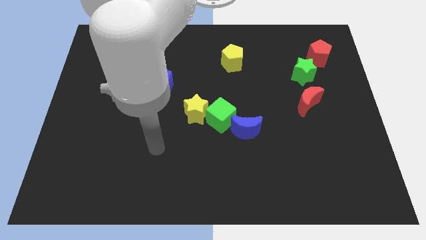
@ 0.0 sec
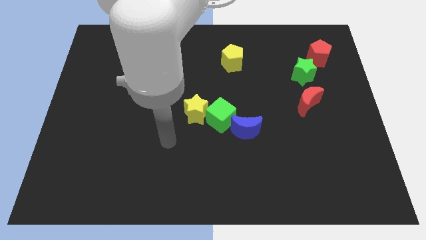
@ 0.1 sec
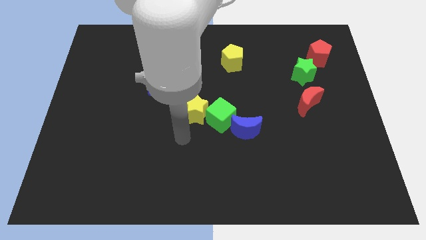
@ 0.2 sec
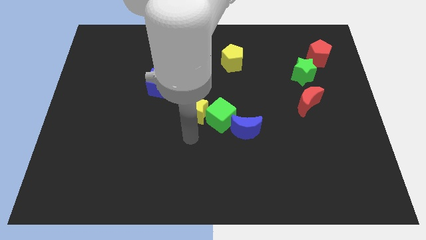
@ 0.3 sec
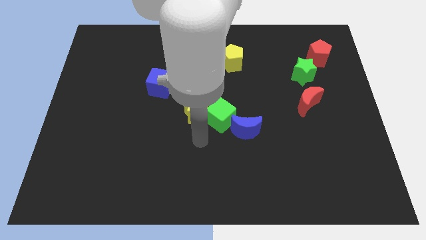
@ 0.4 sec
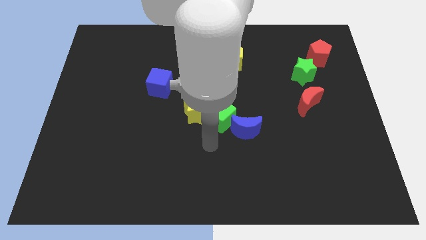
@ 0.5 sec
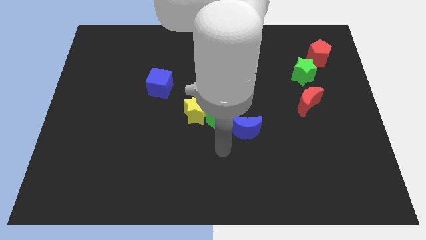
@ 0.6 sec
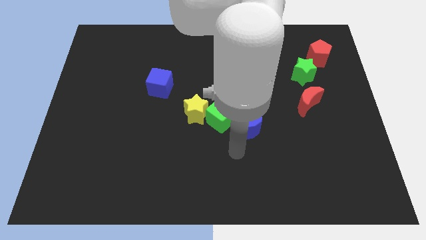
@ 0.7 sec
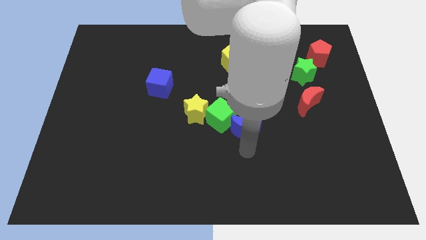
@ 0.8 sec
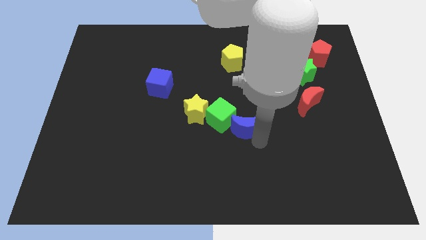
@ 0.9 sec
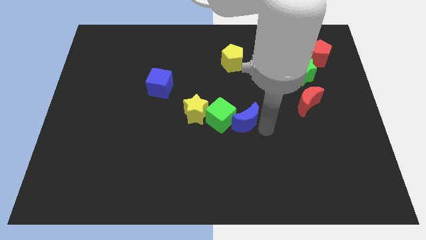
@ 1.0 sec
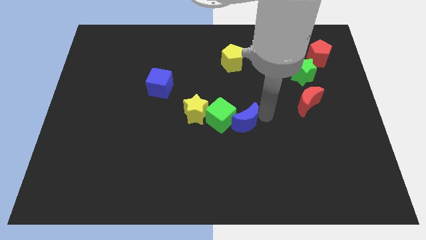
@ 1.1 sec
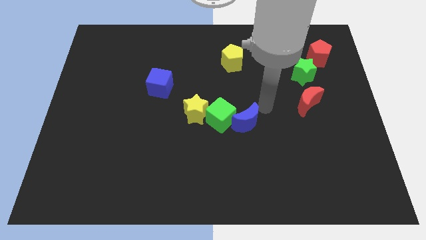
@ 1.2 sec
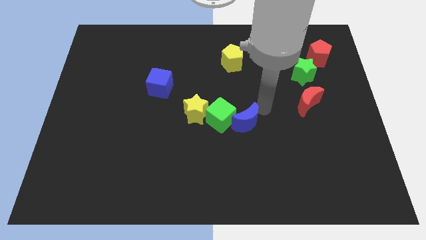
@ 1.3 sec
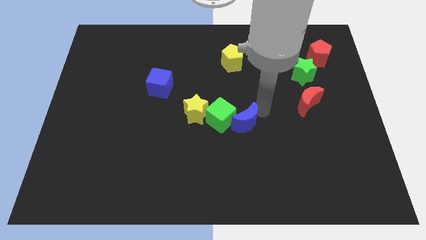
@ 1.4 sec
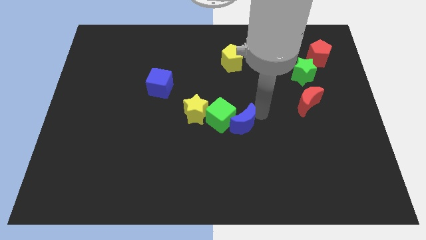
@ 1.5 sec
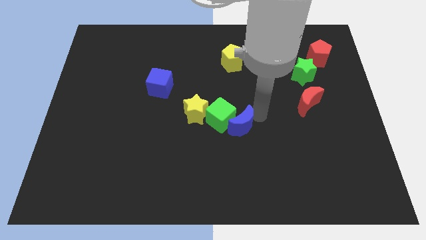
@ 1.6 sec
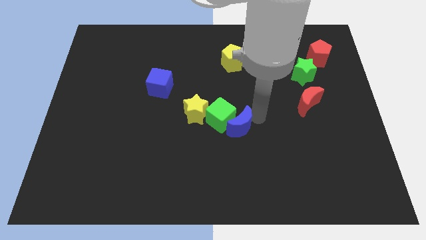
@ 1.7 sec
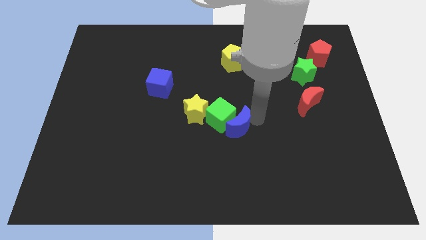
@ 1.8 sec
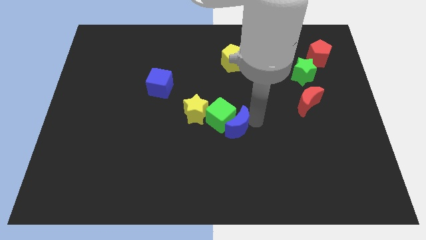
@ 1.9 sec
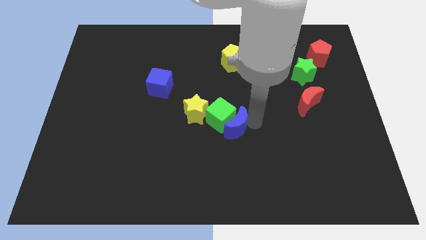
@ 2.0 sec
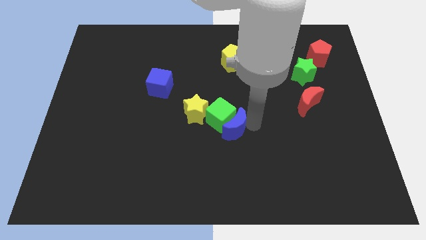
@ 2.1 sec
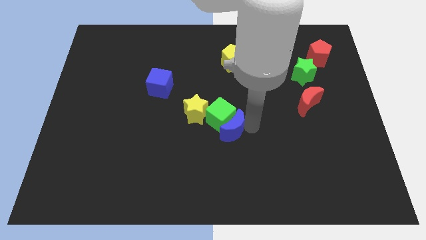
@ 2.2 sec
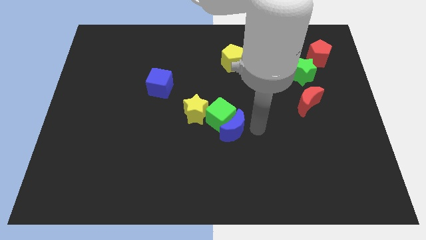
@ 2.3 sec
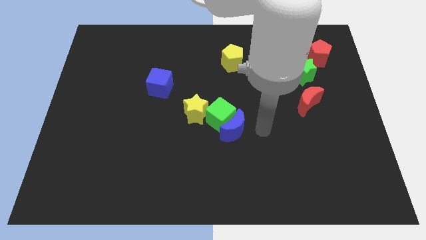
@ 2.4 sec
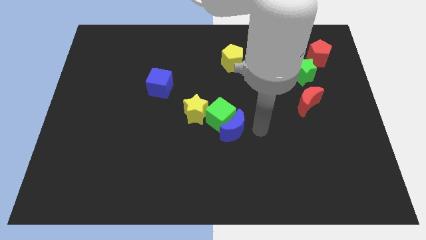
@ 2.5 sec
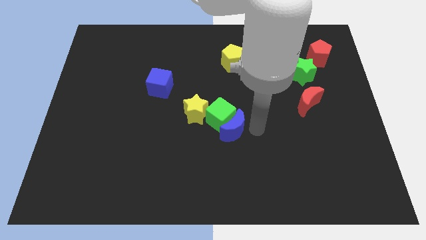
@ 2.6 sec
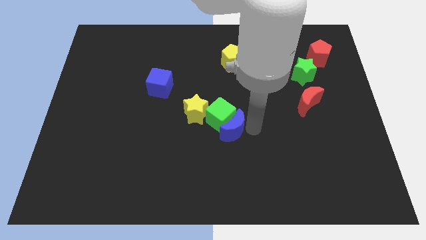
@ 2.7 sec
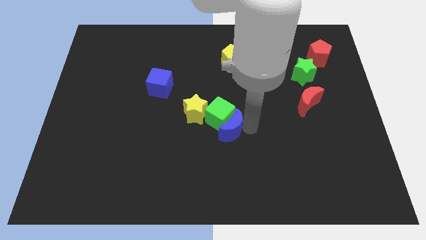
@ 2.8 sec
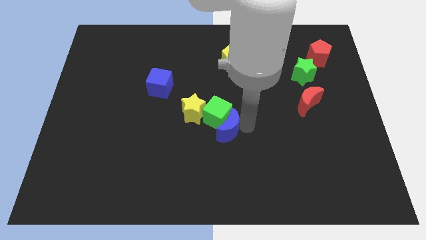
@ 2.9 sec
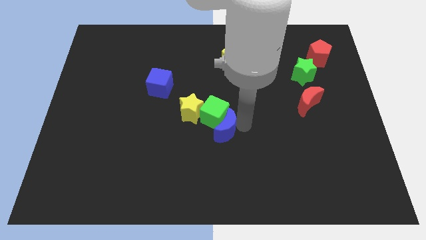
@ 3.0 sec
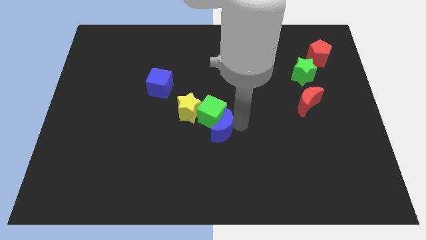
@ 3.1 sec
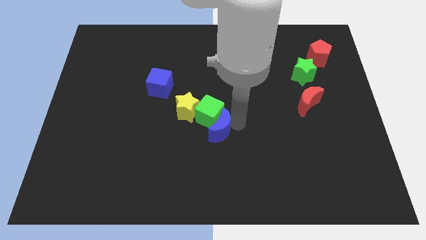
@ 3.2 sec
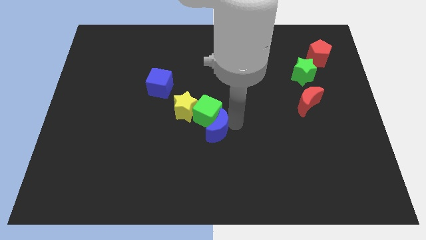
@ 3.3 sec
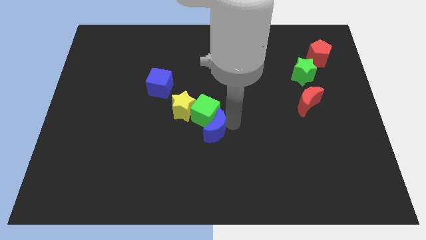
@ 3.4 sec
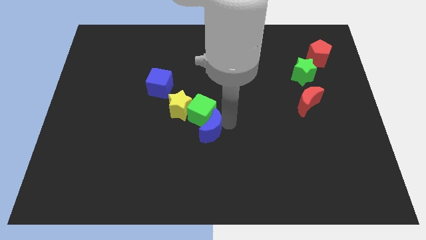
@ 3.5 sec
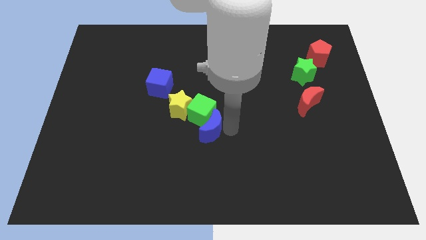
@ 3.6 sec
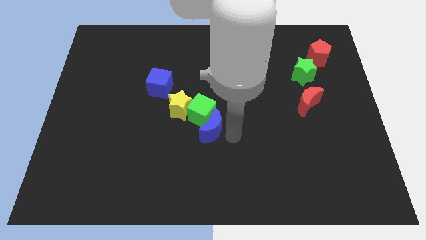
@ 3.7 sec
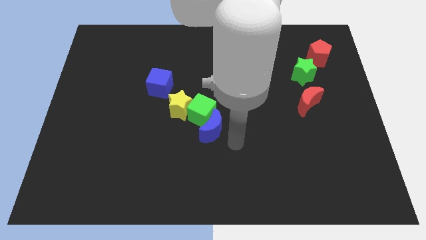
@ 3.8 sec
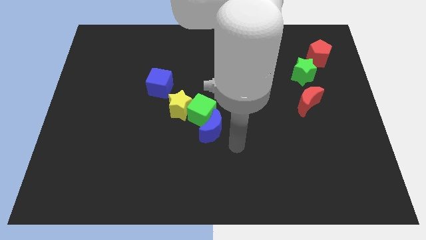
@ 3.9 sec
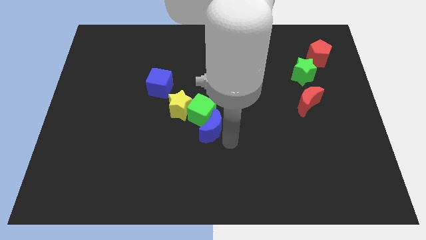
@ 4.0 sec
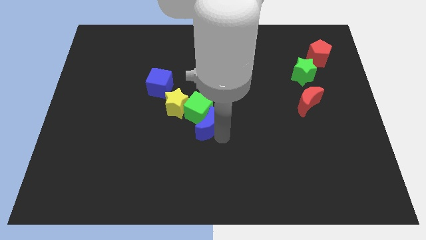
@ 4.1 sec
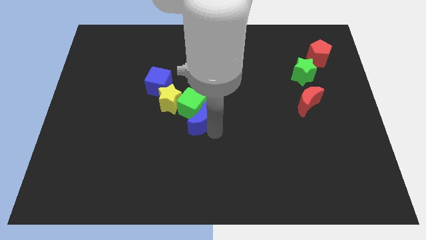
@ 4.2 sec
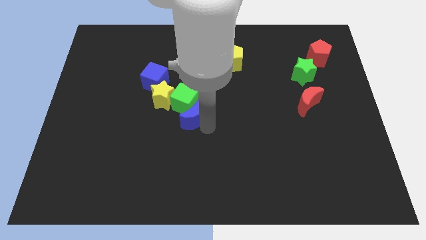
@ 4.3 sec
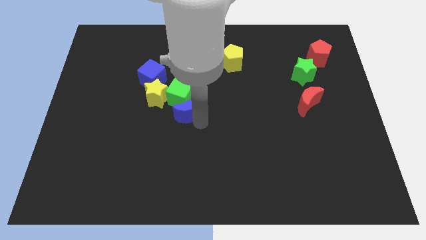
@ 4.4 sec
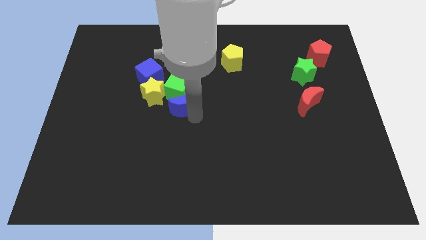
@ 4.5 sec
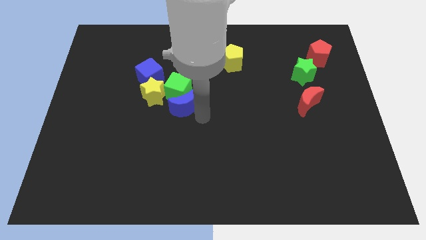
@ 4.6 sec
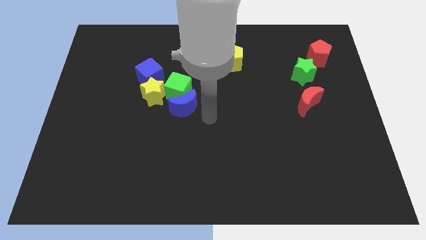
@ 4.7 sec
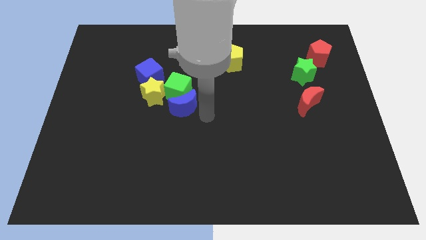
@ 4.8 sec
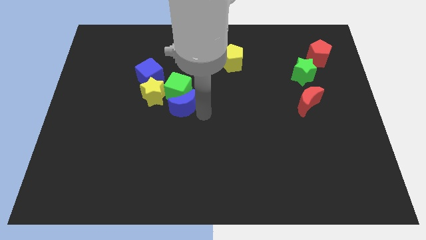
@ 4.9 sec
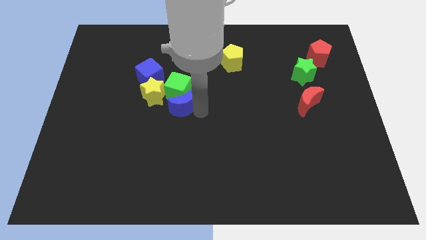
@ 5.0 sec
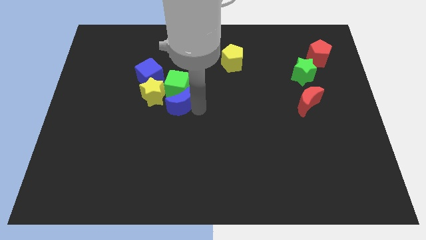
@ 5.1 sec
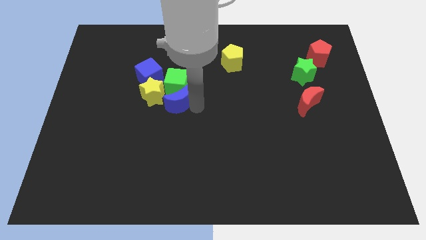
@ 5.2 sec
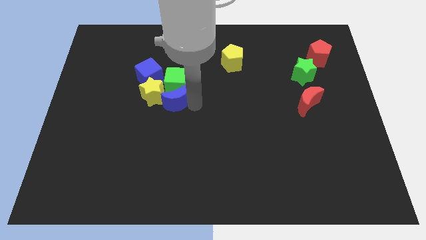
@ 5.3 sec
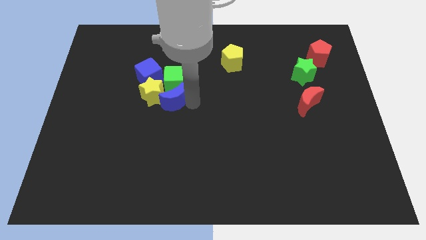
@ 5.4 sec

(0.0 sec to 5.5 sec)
put the blue moon to the yellow star

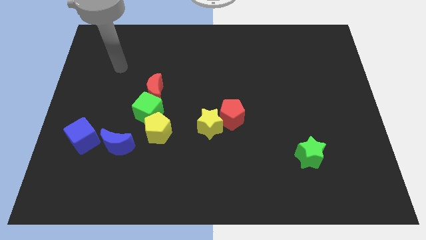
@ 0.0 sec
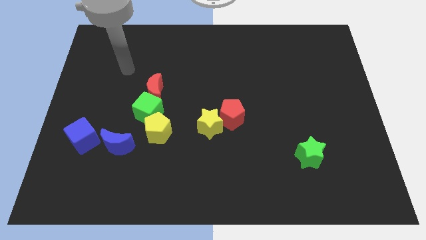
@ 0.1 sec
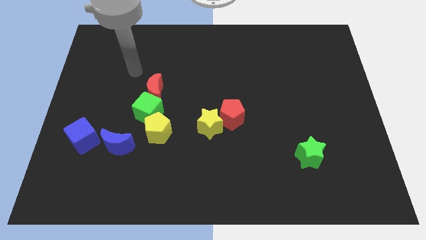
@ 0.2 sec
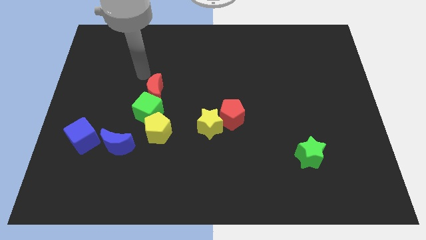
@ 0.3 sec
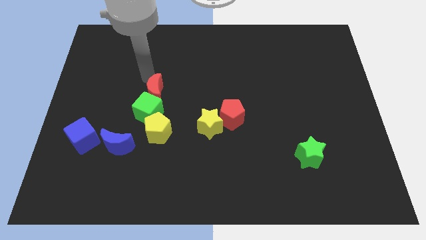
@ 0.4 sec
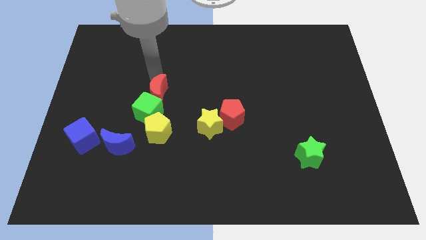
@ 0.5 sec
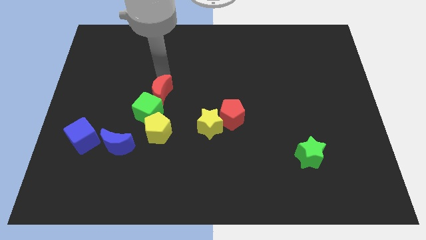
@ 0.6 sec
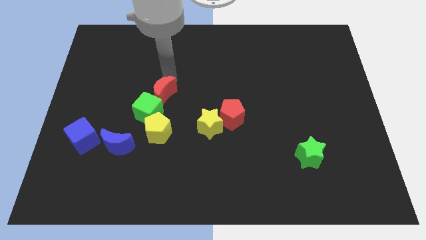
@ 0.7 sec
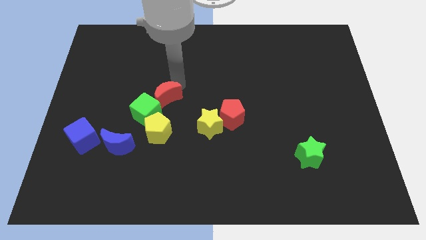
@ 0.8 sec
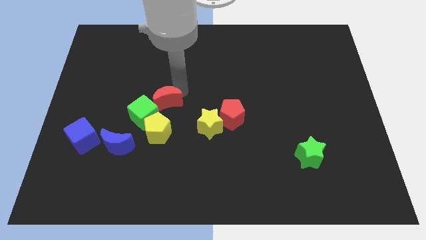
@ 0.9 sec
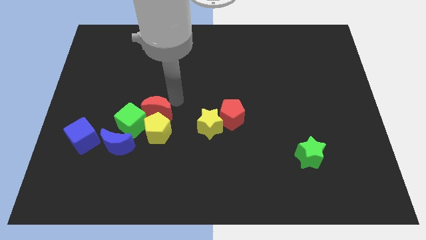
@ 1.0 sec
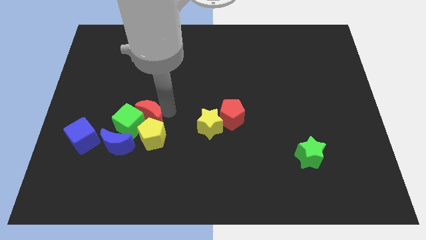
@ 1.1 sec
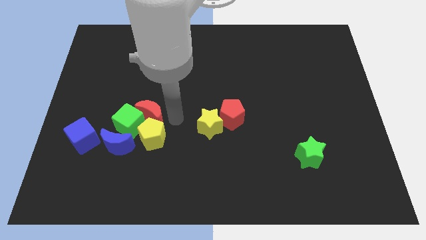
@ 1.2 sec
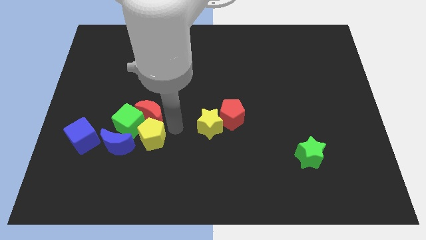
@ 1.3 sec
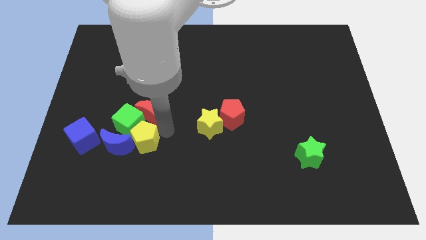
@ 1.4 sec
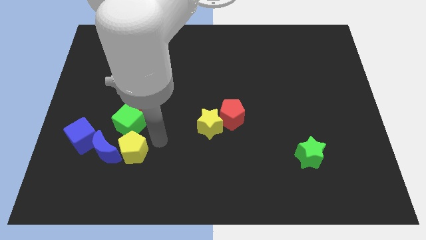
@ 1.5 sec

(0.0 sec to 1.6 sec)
slide the blue moon towards the blue cube

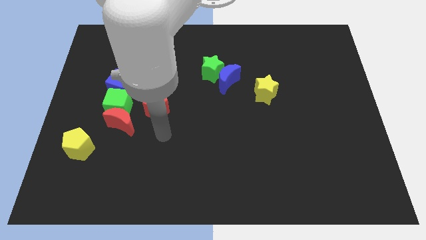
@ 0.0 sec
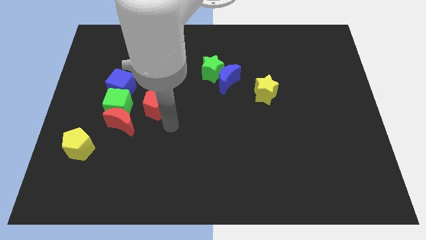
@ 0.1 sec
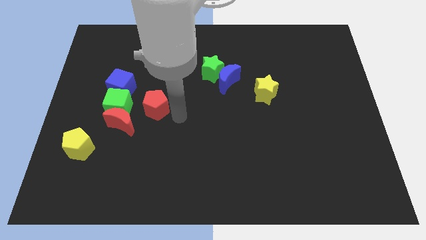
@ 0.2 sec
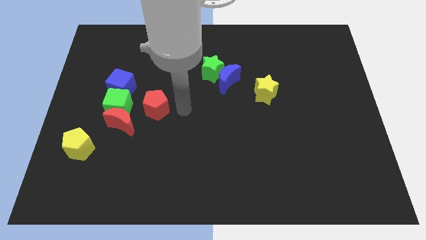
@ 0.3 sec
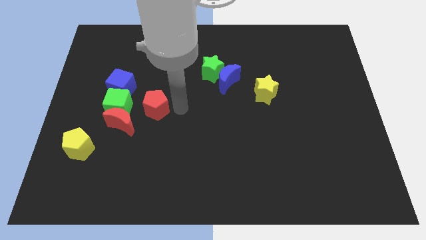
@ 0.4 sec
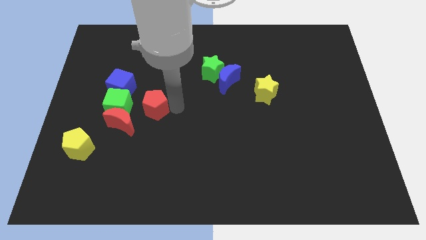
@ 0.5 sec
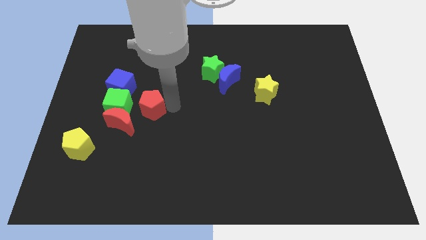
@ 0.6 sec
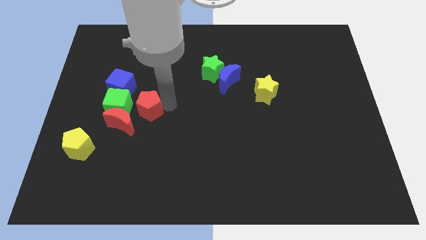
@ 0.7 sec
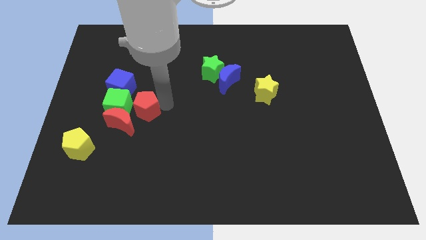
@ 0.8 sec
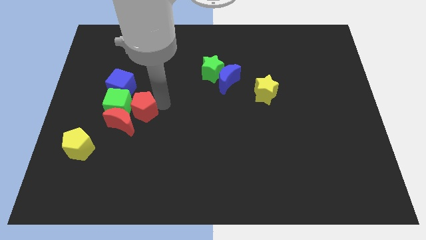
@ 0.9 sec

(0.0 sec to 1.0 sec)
slide the red pentagon to the green cube
